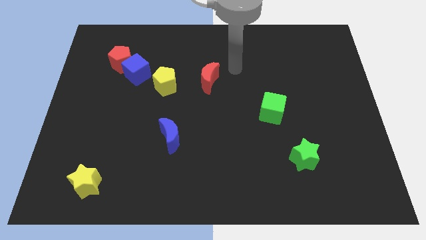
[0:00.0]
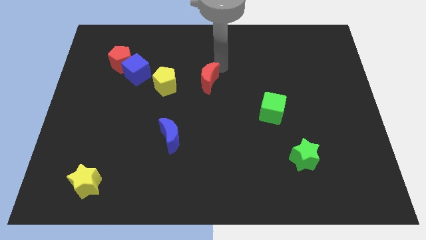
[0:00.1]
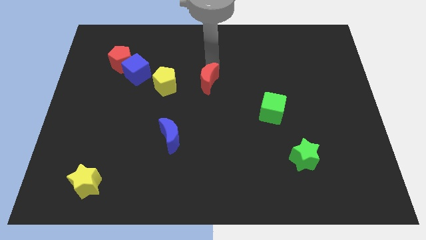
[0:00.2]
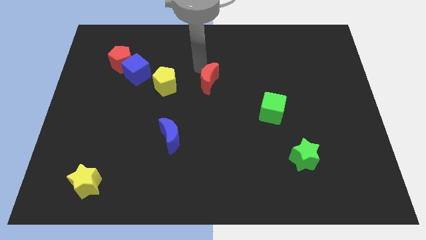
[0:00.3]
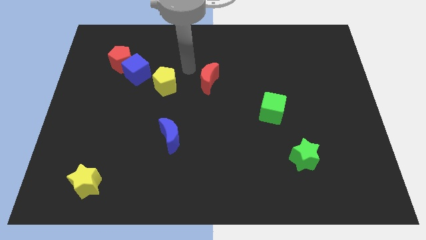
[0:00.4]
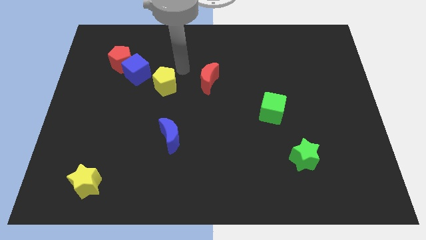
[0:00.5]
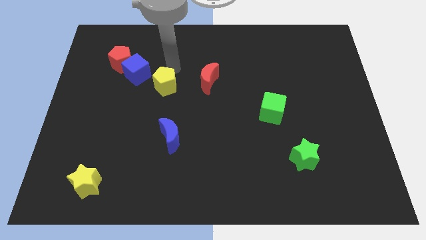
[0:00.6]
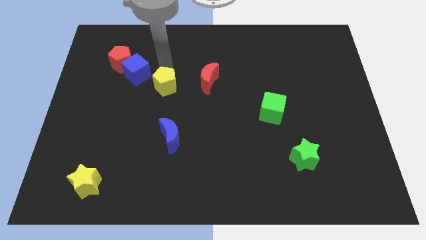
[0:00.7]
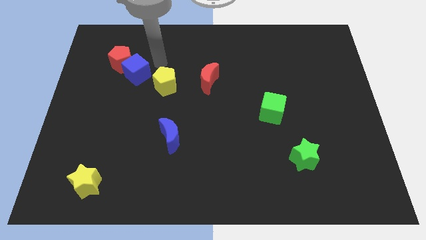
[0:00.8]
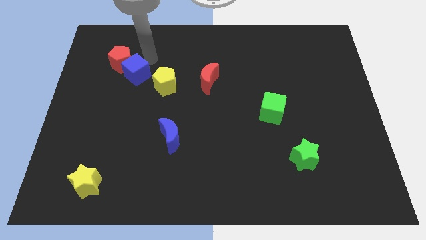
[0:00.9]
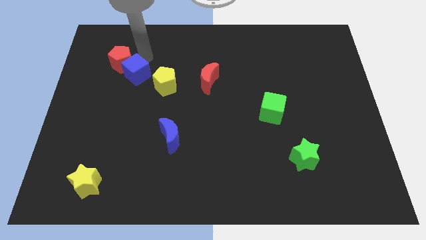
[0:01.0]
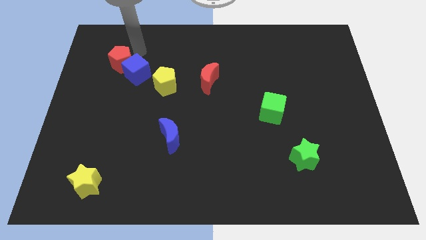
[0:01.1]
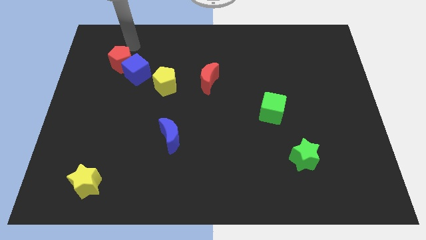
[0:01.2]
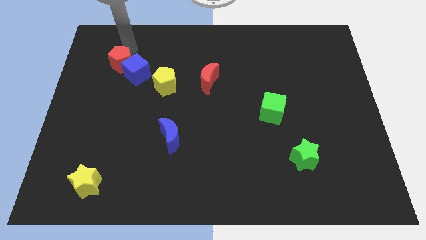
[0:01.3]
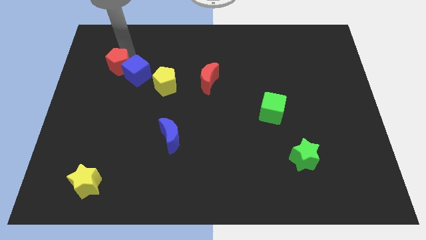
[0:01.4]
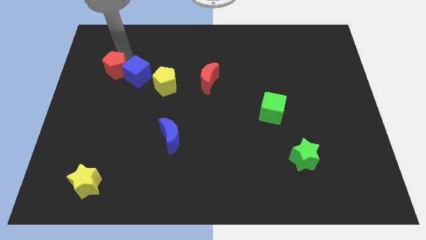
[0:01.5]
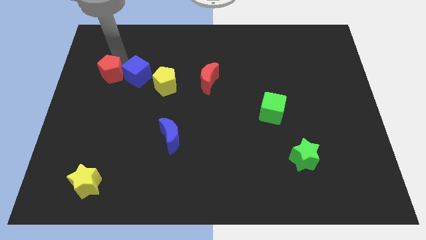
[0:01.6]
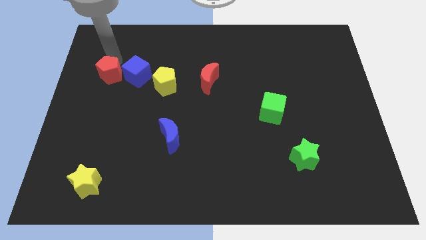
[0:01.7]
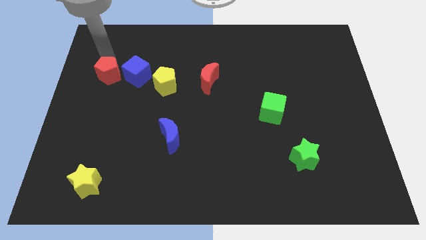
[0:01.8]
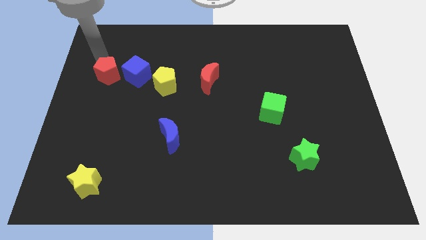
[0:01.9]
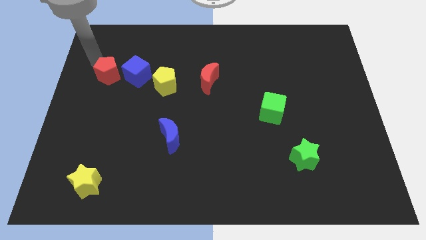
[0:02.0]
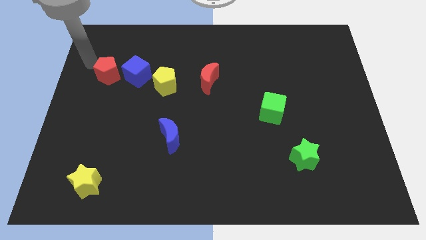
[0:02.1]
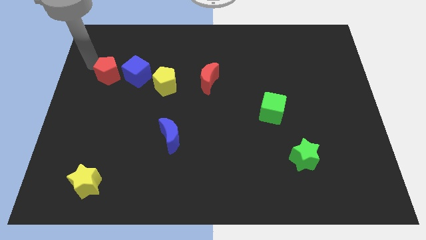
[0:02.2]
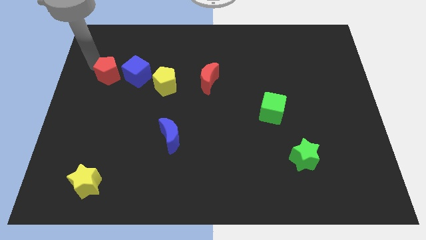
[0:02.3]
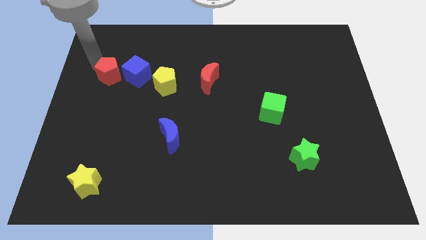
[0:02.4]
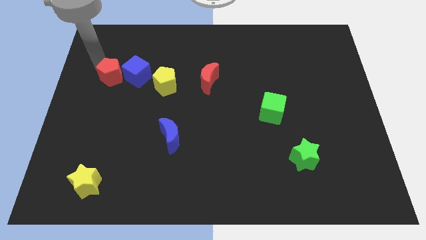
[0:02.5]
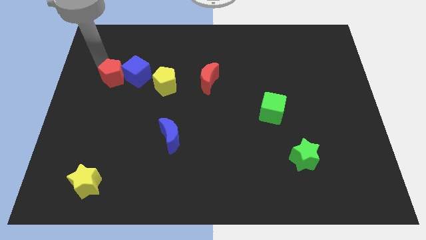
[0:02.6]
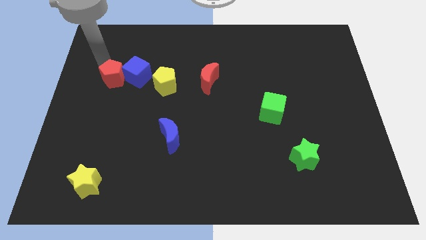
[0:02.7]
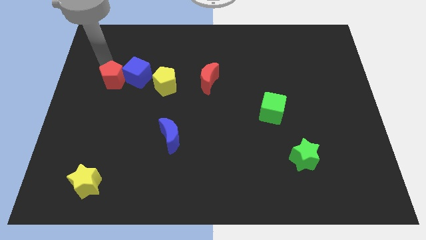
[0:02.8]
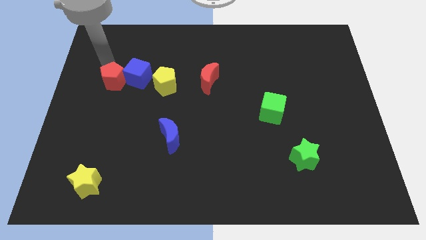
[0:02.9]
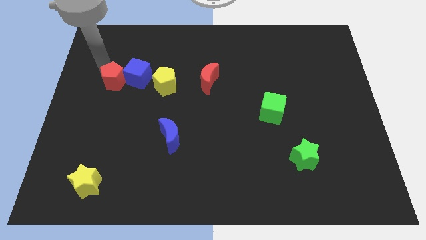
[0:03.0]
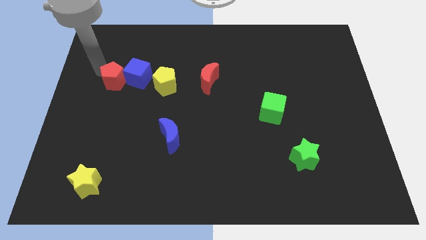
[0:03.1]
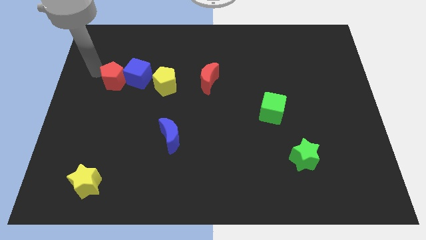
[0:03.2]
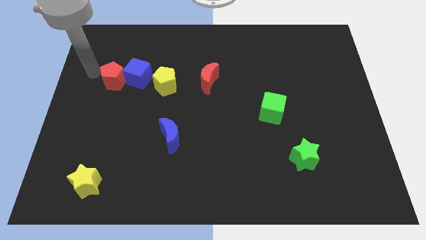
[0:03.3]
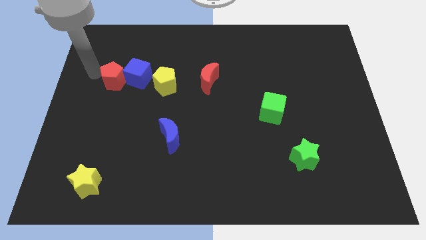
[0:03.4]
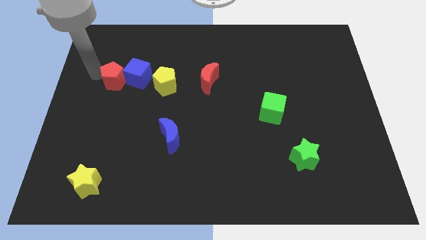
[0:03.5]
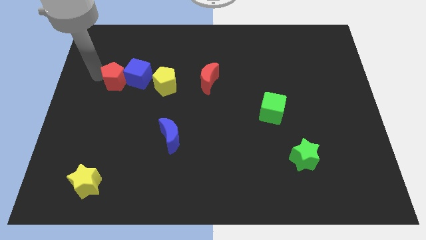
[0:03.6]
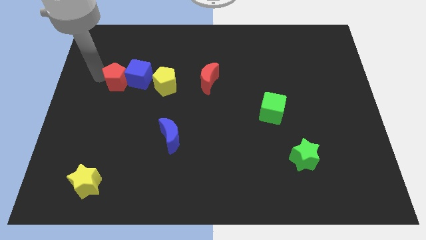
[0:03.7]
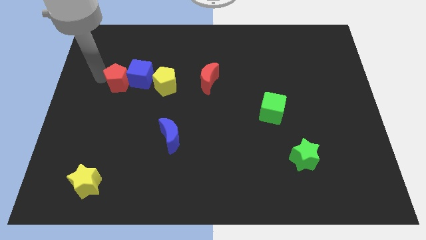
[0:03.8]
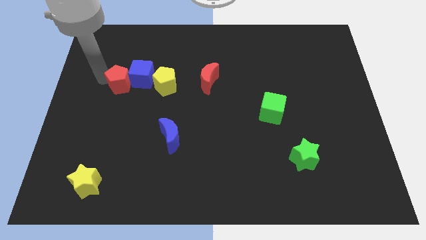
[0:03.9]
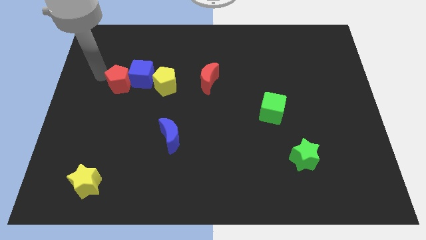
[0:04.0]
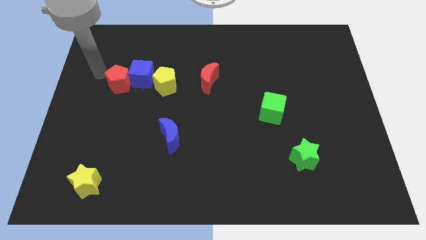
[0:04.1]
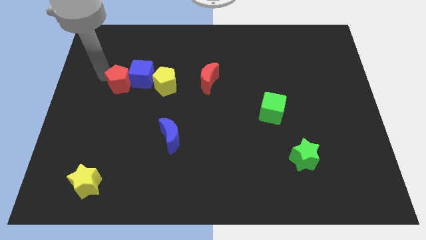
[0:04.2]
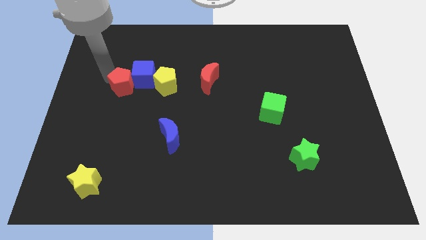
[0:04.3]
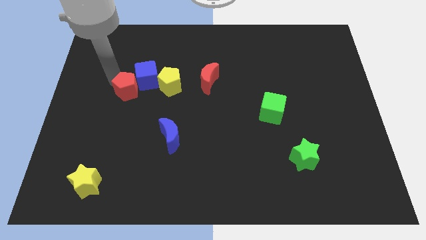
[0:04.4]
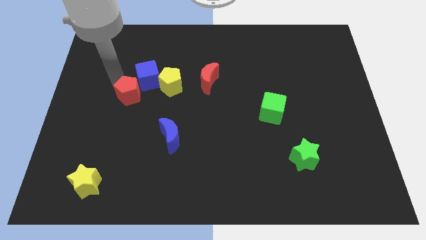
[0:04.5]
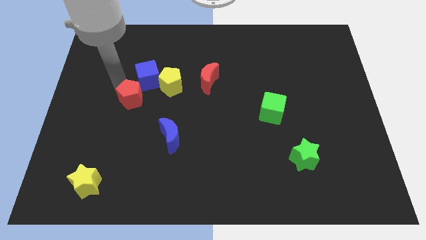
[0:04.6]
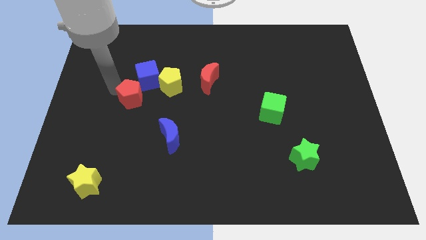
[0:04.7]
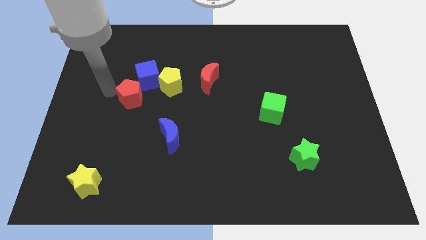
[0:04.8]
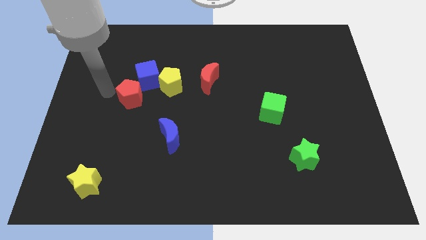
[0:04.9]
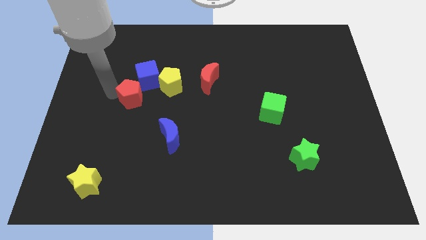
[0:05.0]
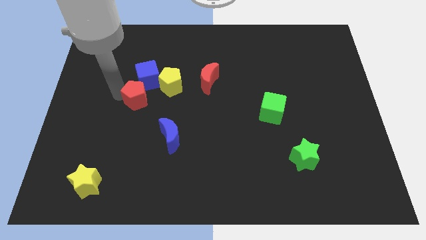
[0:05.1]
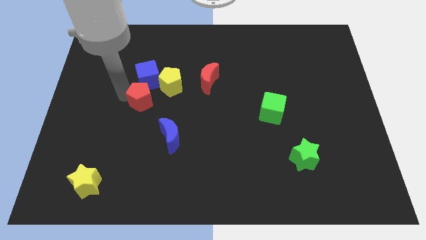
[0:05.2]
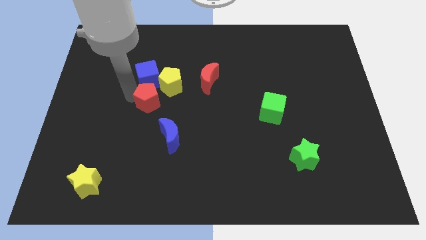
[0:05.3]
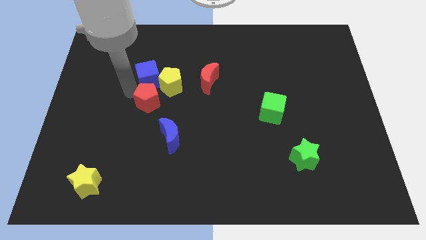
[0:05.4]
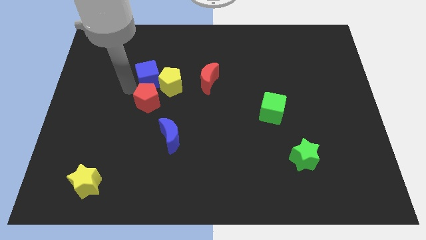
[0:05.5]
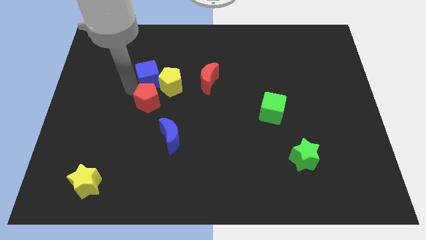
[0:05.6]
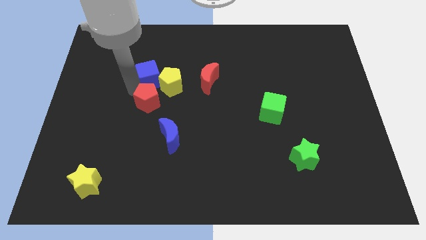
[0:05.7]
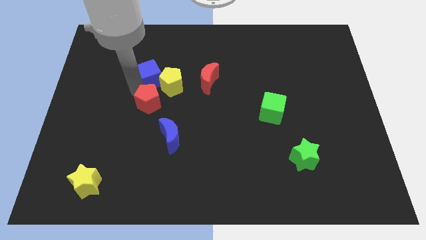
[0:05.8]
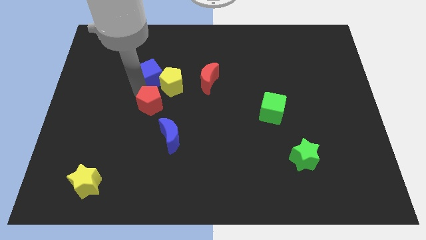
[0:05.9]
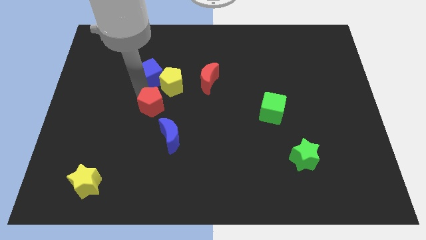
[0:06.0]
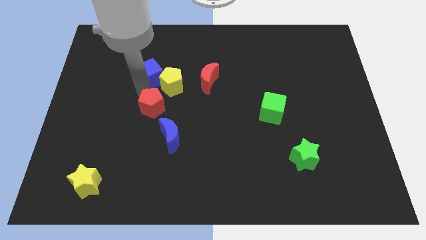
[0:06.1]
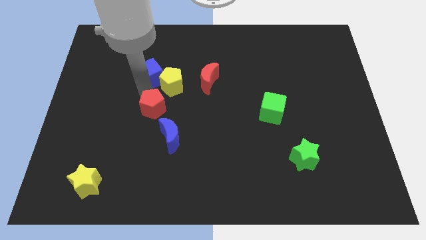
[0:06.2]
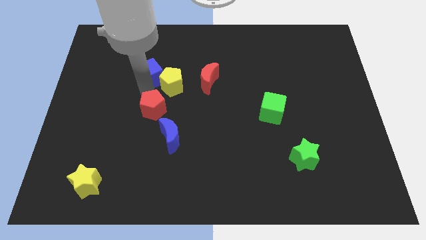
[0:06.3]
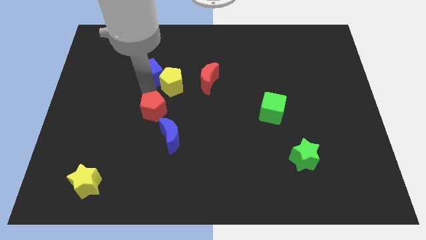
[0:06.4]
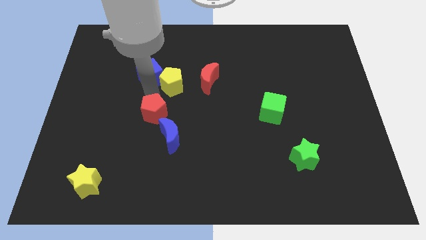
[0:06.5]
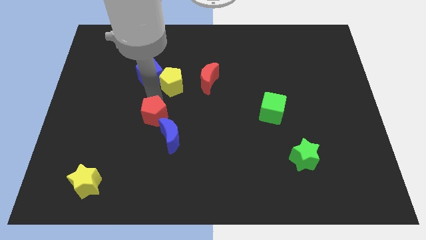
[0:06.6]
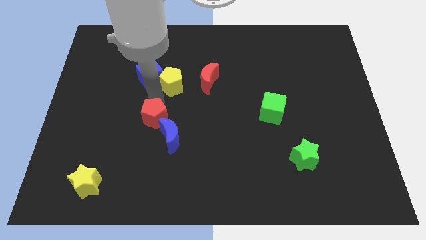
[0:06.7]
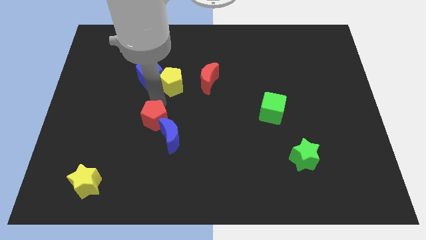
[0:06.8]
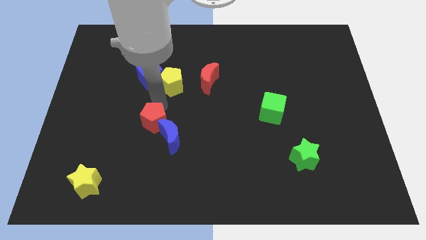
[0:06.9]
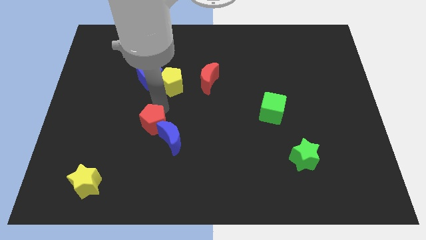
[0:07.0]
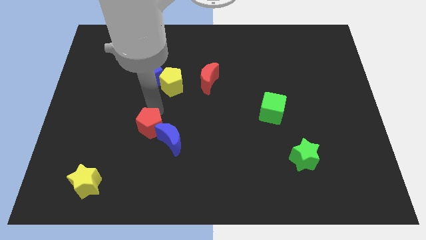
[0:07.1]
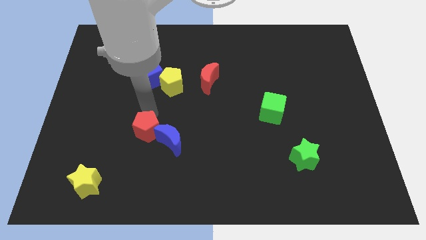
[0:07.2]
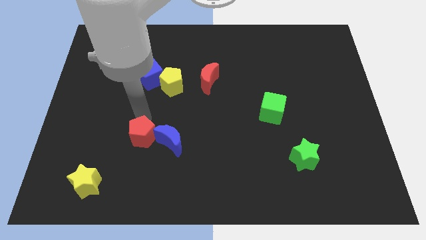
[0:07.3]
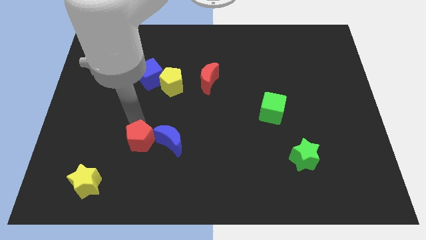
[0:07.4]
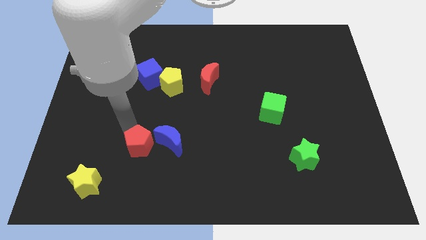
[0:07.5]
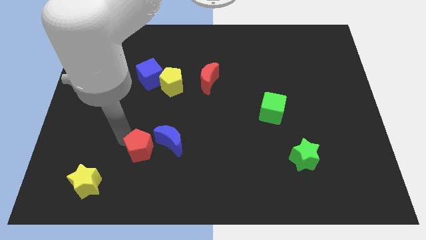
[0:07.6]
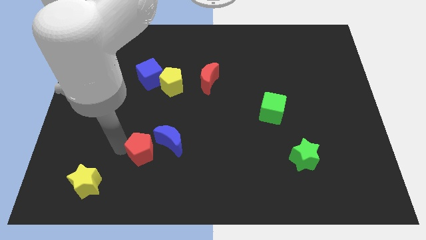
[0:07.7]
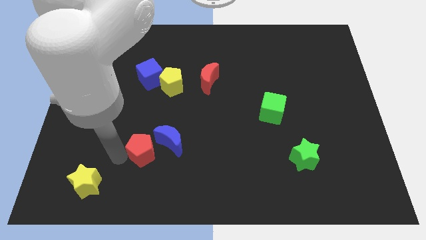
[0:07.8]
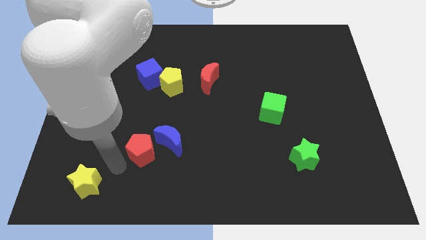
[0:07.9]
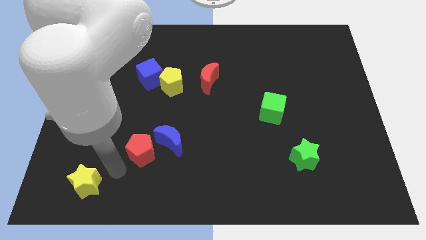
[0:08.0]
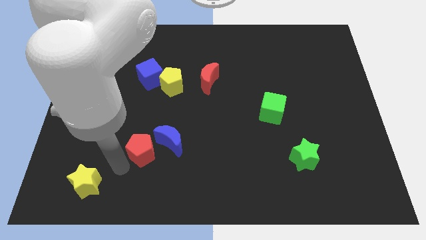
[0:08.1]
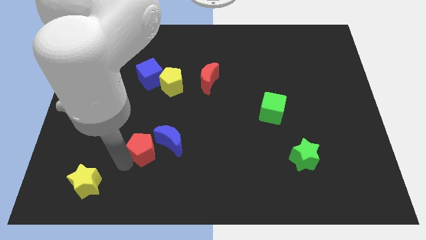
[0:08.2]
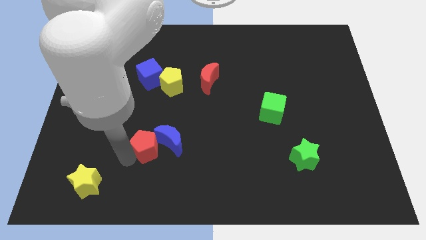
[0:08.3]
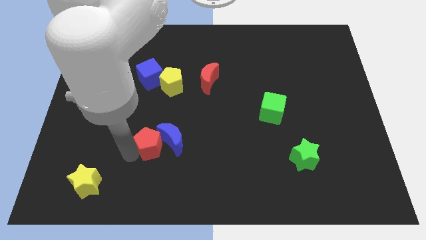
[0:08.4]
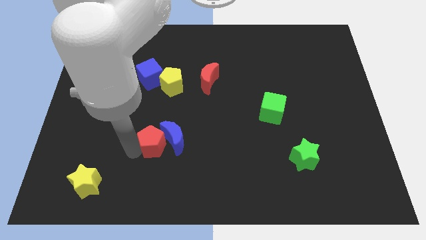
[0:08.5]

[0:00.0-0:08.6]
push the red pentagon diagonally down and right
